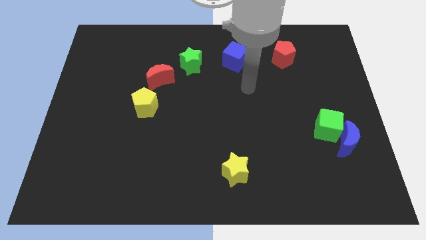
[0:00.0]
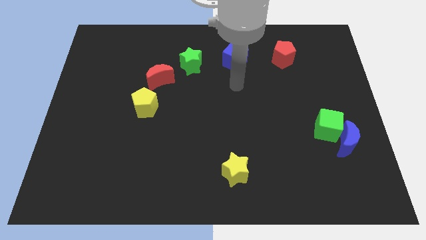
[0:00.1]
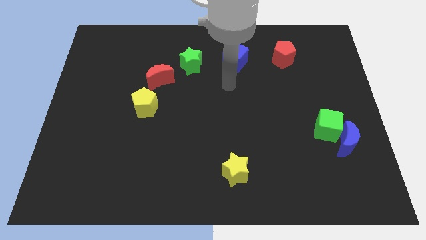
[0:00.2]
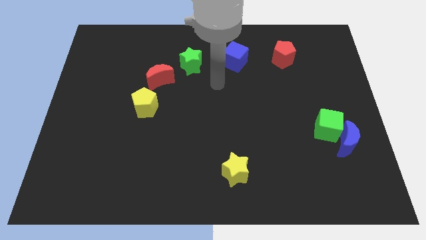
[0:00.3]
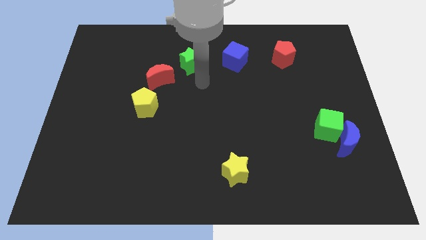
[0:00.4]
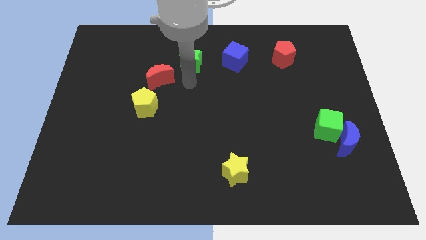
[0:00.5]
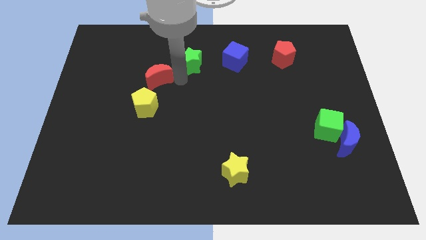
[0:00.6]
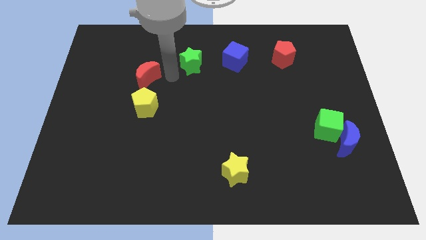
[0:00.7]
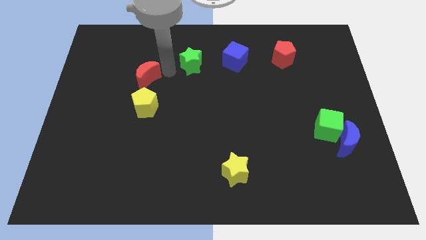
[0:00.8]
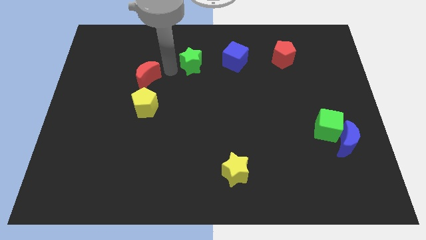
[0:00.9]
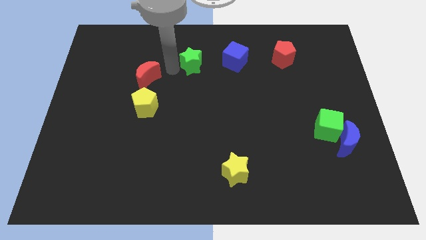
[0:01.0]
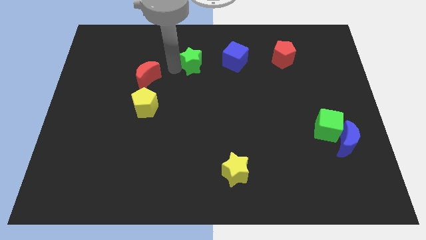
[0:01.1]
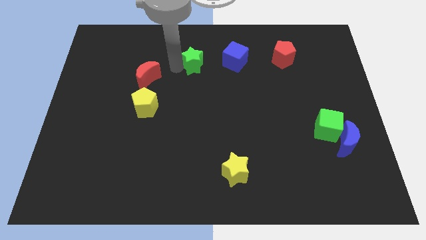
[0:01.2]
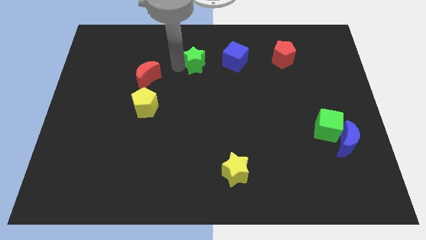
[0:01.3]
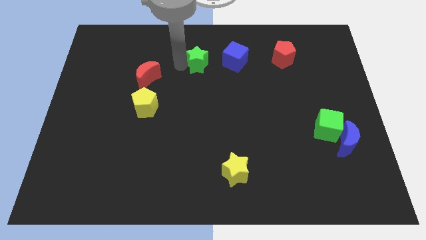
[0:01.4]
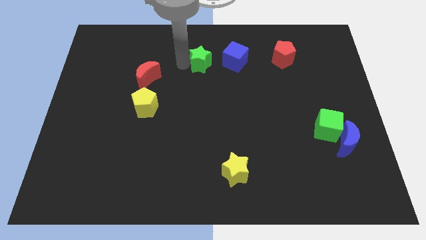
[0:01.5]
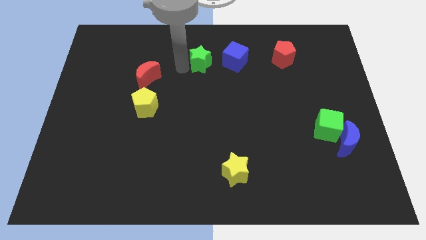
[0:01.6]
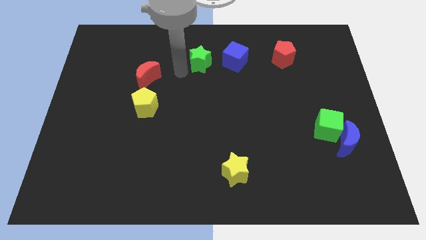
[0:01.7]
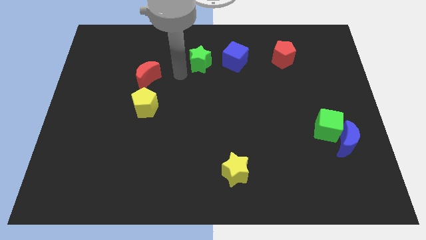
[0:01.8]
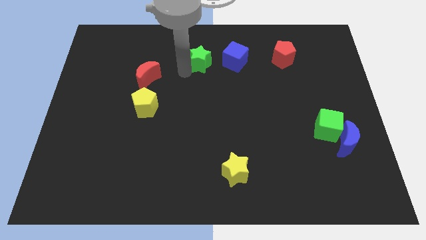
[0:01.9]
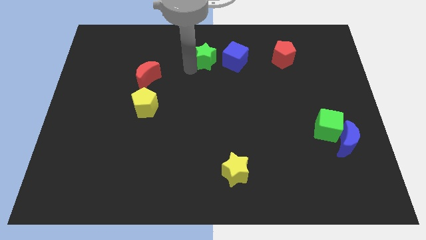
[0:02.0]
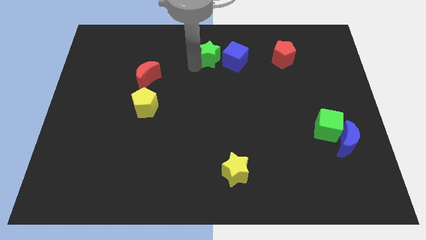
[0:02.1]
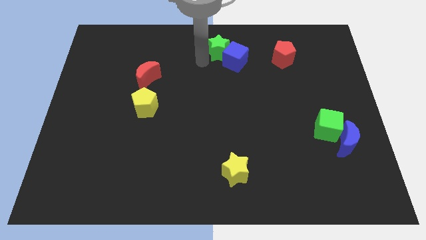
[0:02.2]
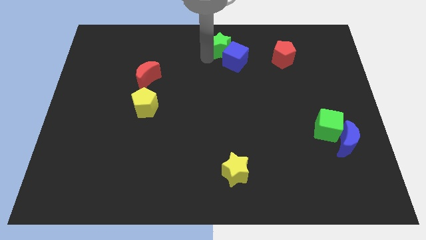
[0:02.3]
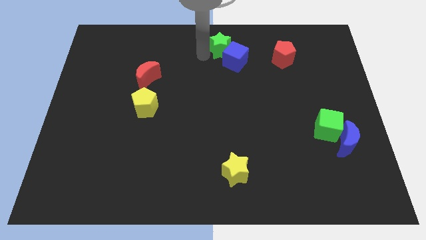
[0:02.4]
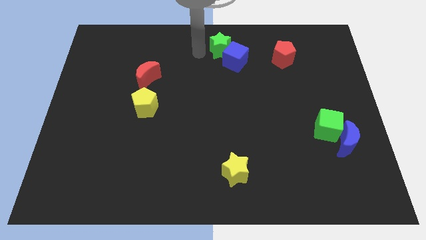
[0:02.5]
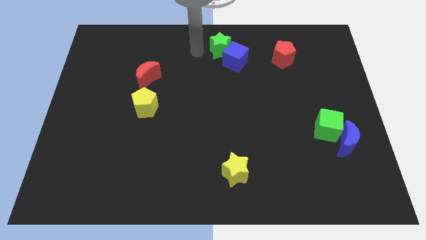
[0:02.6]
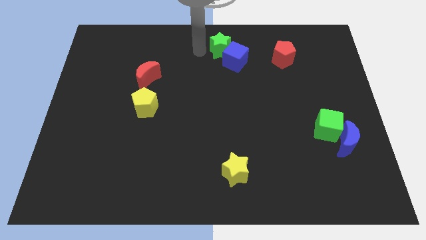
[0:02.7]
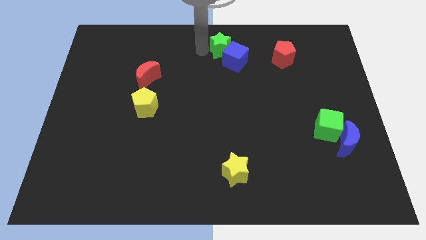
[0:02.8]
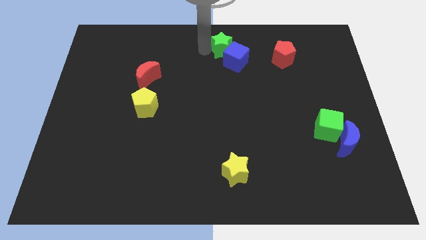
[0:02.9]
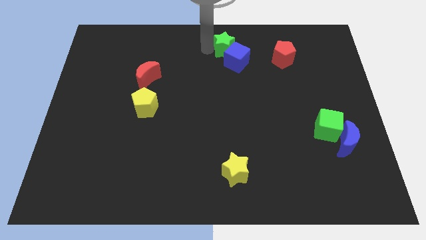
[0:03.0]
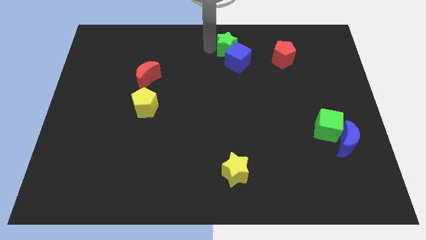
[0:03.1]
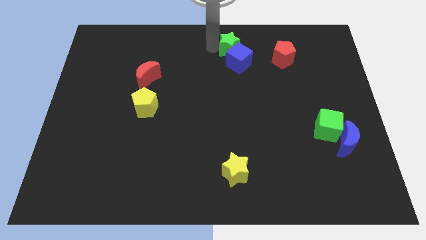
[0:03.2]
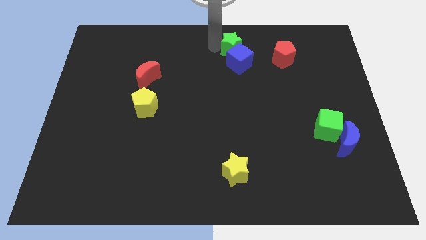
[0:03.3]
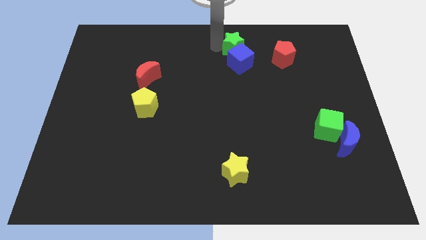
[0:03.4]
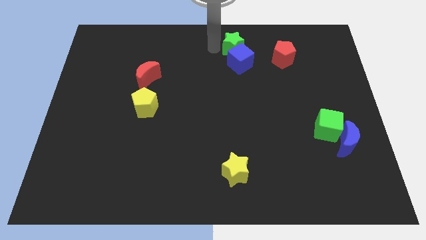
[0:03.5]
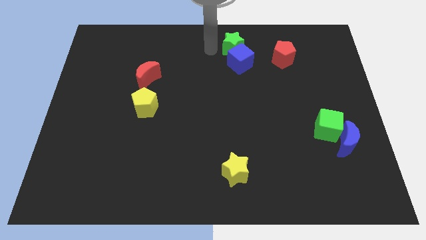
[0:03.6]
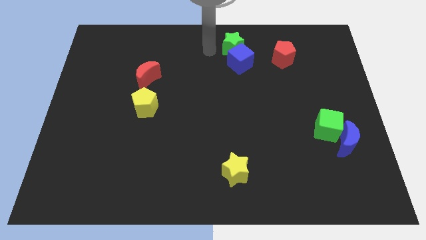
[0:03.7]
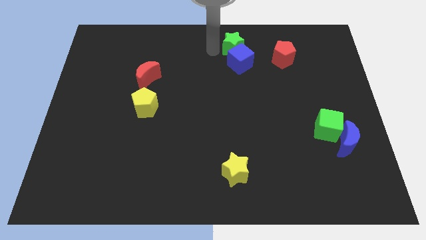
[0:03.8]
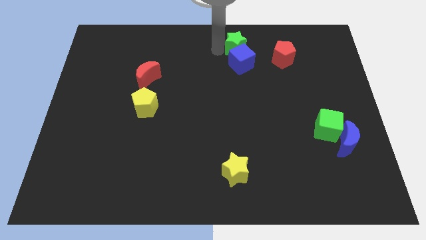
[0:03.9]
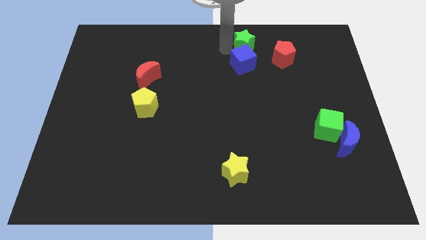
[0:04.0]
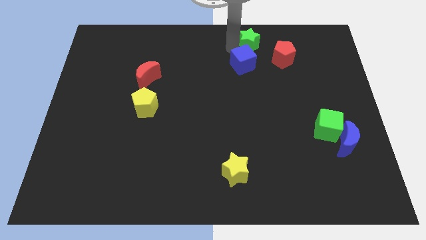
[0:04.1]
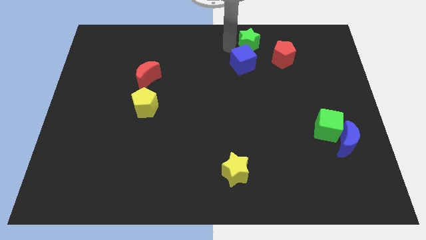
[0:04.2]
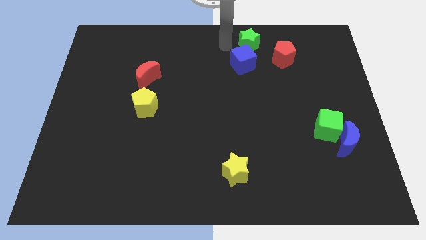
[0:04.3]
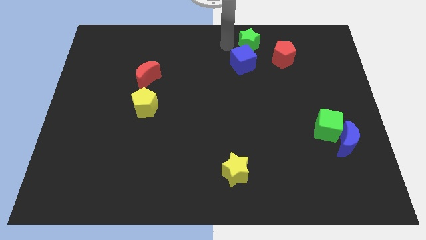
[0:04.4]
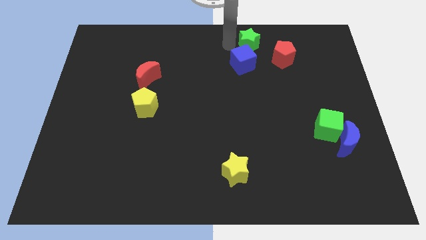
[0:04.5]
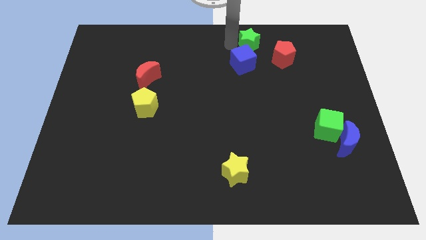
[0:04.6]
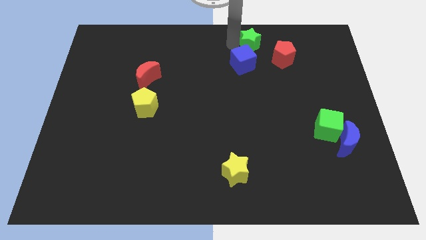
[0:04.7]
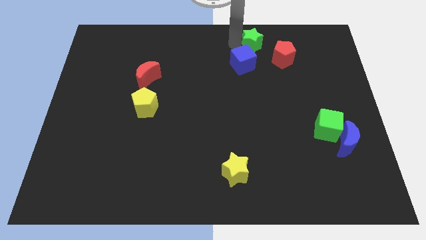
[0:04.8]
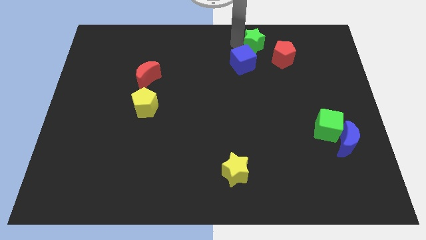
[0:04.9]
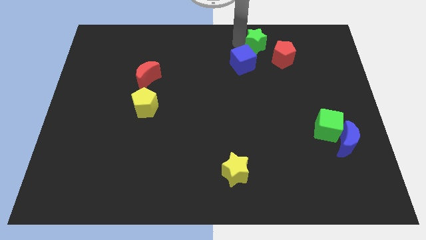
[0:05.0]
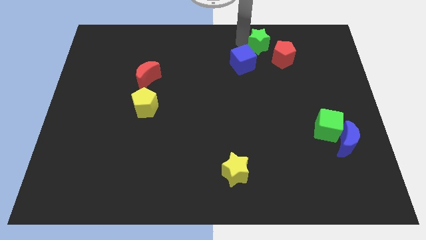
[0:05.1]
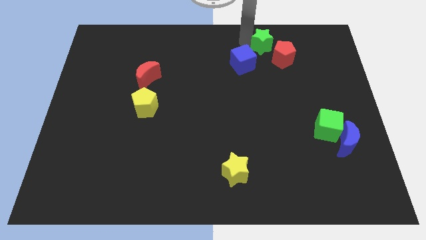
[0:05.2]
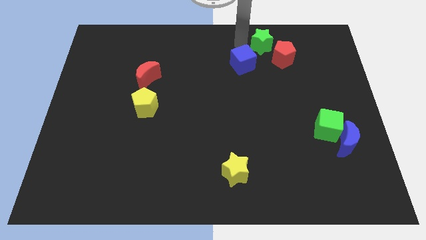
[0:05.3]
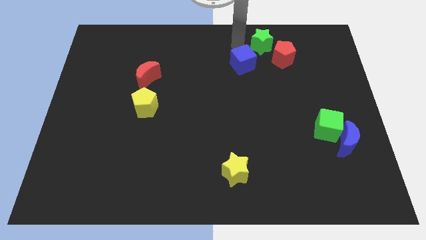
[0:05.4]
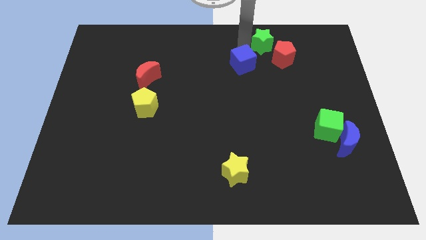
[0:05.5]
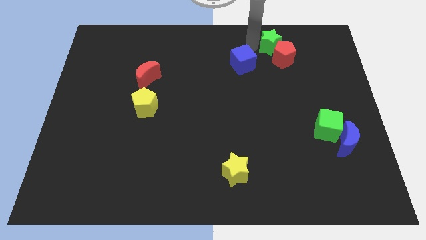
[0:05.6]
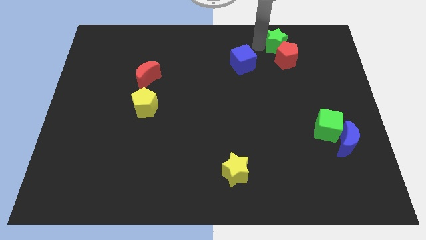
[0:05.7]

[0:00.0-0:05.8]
push the green star to the right

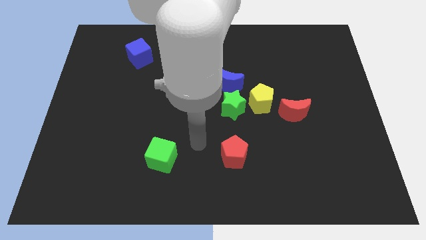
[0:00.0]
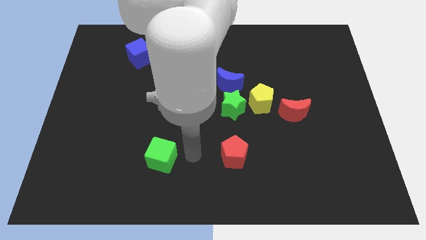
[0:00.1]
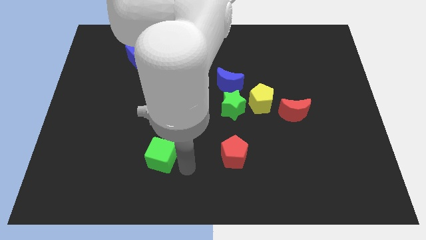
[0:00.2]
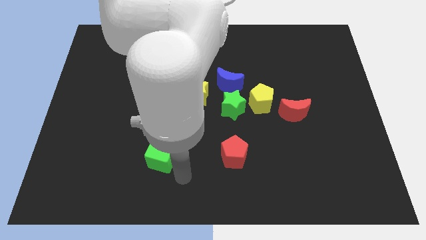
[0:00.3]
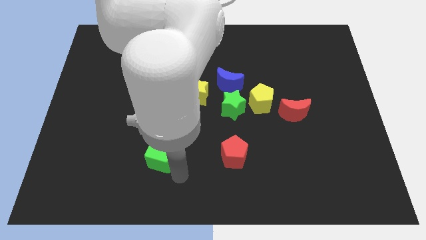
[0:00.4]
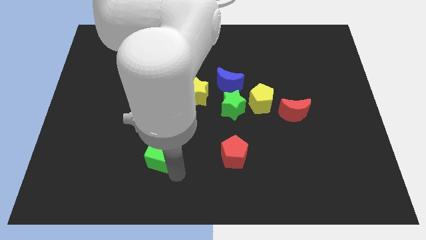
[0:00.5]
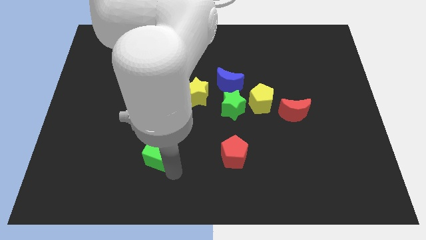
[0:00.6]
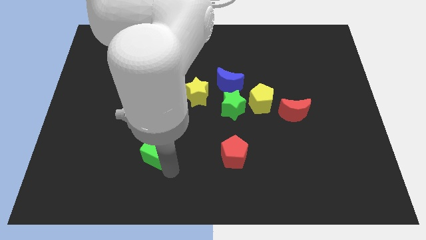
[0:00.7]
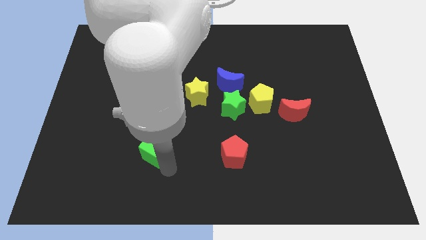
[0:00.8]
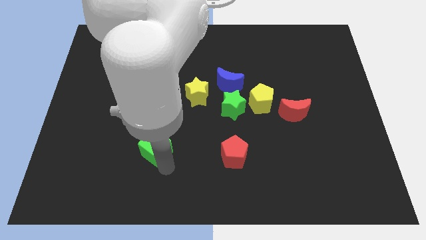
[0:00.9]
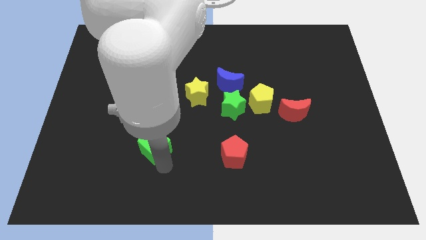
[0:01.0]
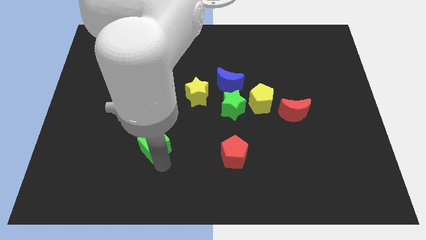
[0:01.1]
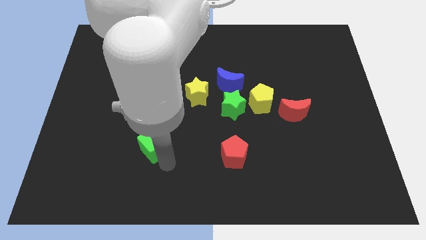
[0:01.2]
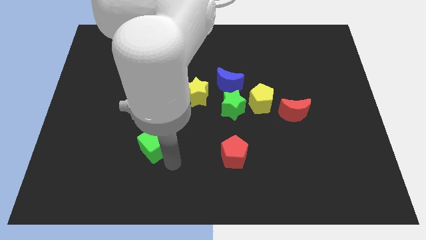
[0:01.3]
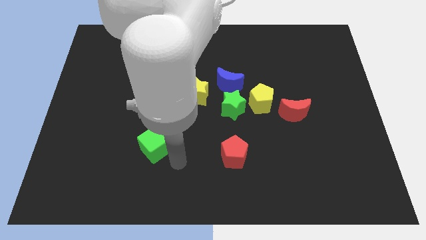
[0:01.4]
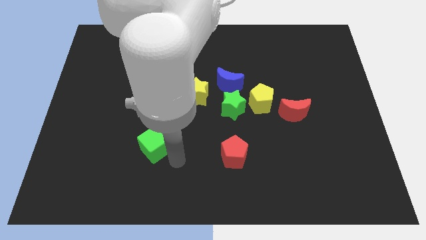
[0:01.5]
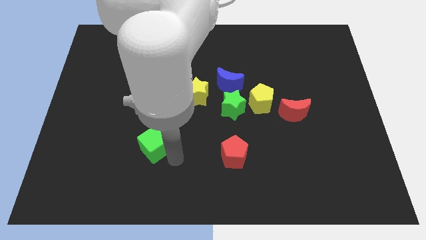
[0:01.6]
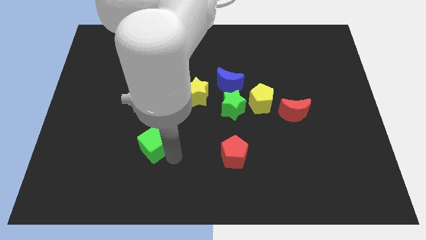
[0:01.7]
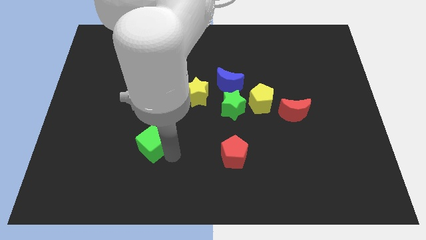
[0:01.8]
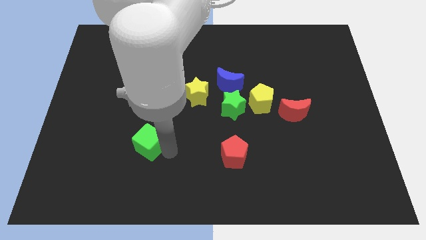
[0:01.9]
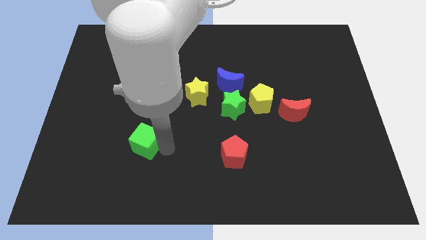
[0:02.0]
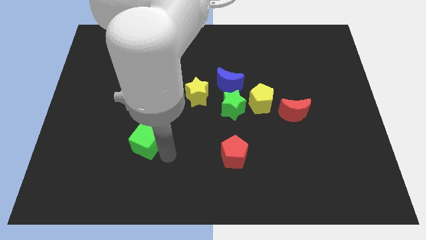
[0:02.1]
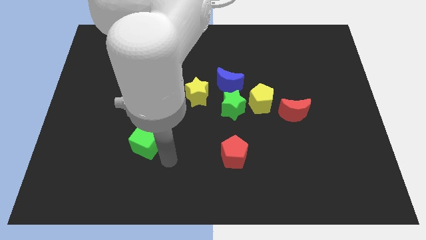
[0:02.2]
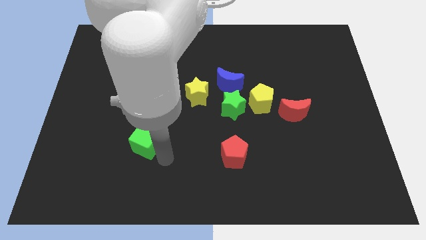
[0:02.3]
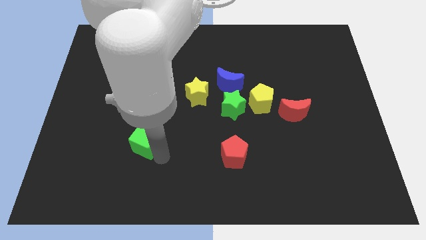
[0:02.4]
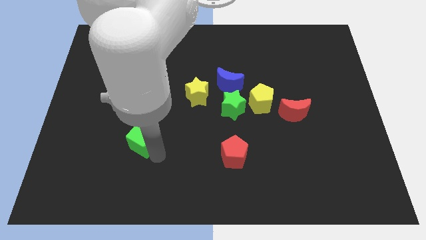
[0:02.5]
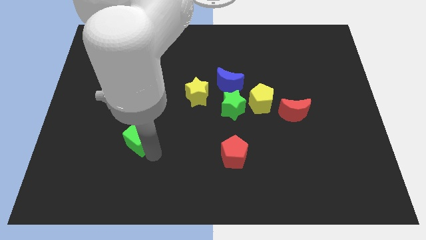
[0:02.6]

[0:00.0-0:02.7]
push the green cube a little bit upwards and then to the left
